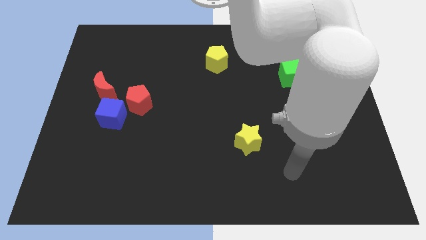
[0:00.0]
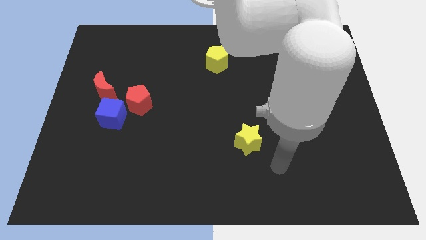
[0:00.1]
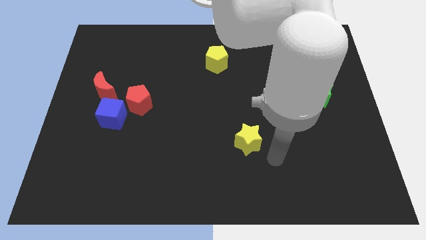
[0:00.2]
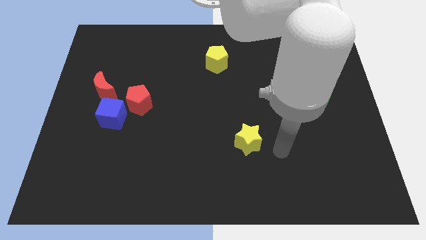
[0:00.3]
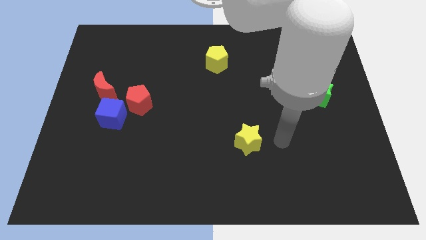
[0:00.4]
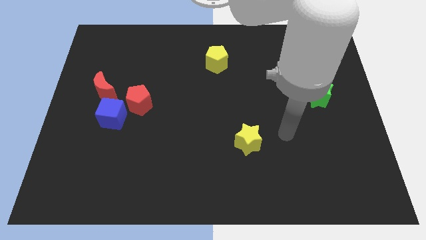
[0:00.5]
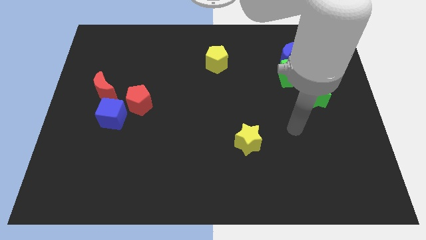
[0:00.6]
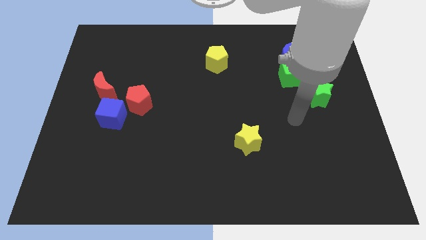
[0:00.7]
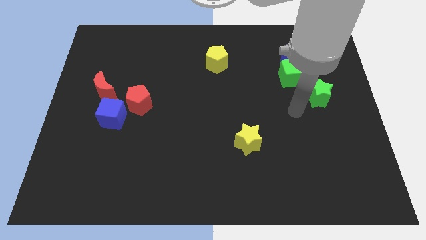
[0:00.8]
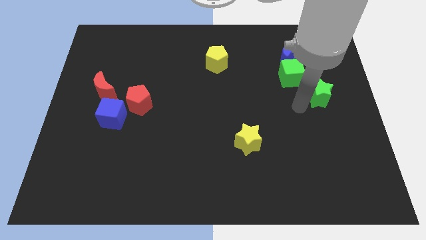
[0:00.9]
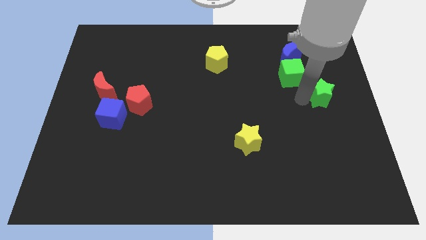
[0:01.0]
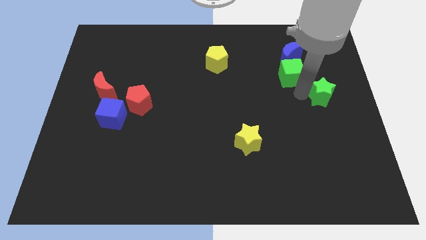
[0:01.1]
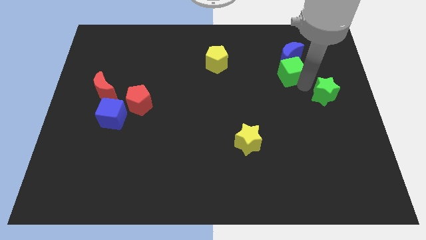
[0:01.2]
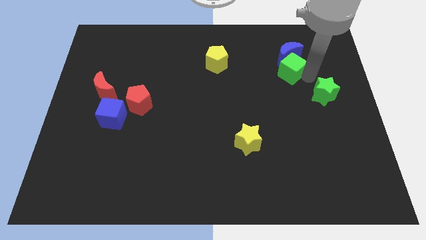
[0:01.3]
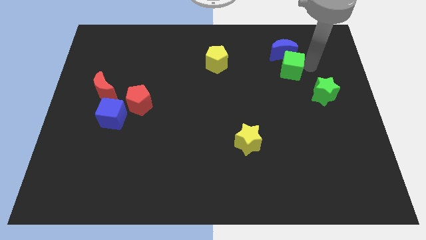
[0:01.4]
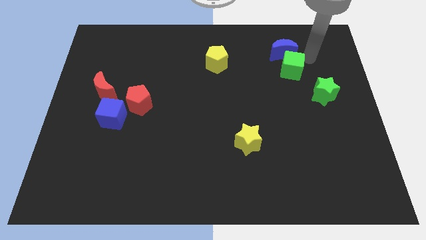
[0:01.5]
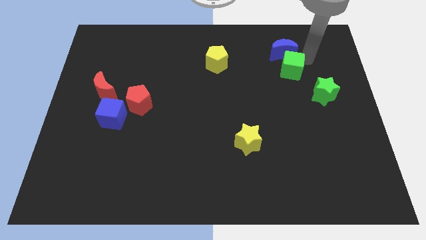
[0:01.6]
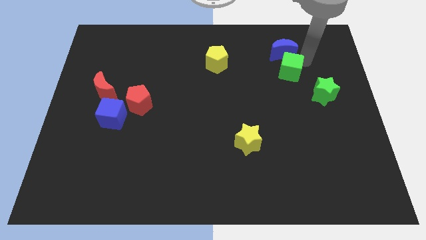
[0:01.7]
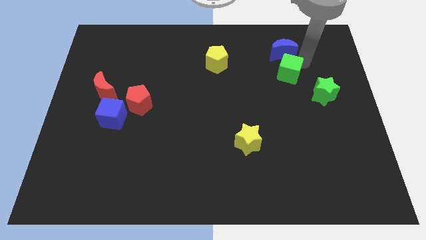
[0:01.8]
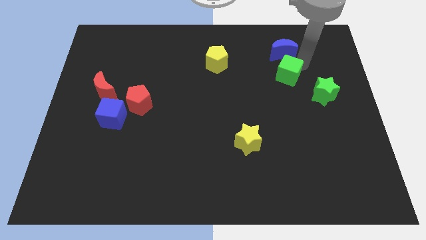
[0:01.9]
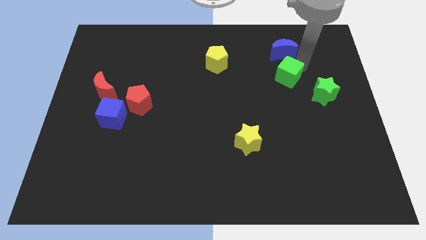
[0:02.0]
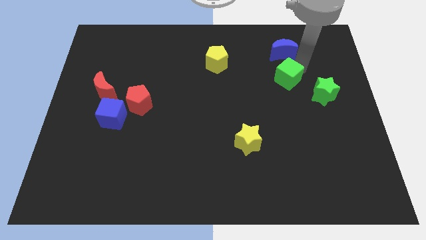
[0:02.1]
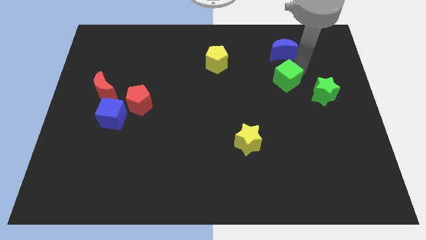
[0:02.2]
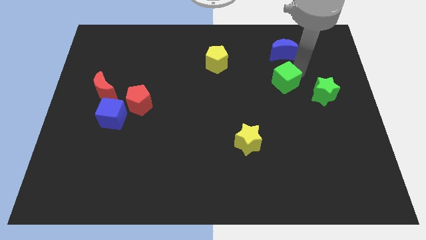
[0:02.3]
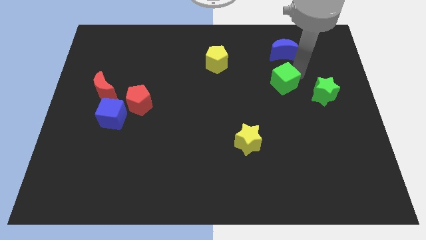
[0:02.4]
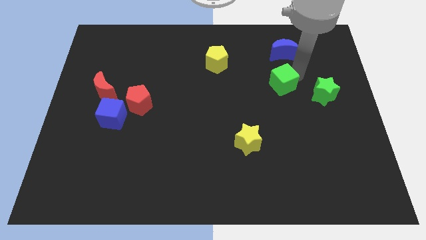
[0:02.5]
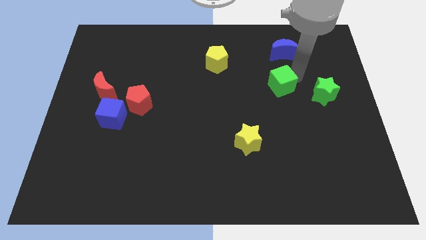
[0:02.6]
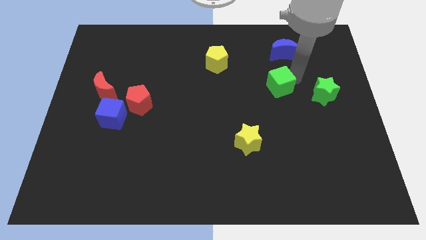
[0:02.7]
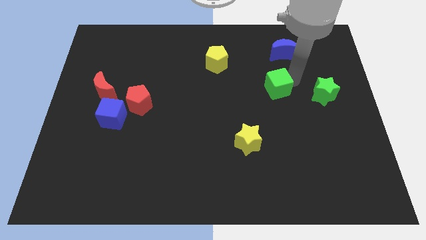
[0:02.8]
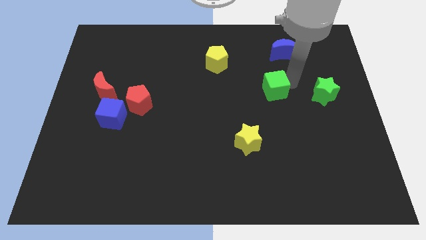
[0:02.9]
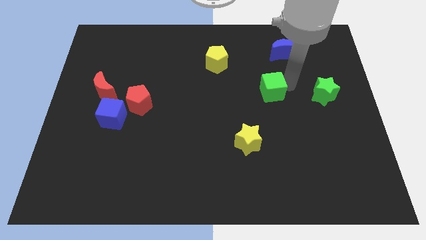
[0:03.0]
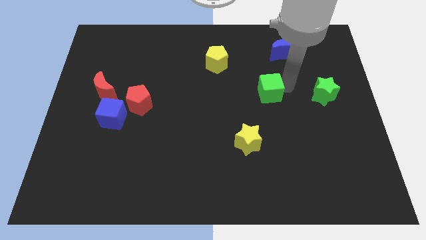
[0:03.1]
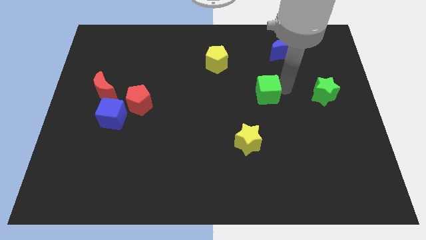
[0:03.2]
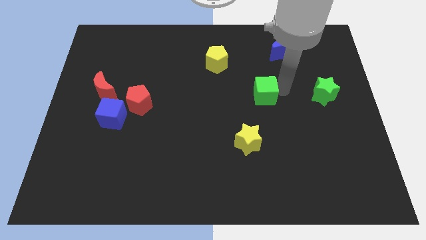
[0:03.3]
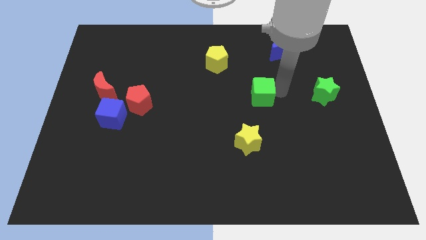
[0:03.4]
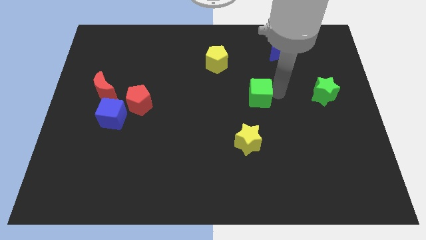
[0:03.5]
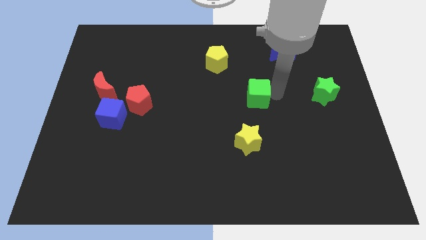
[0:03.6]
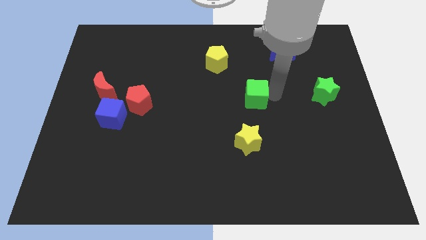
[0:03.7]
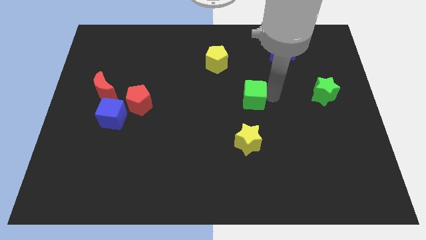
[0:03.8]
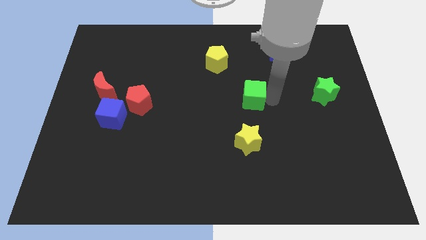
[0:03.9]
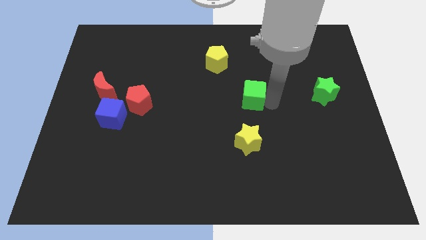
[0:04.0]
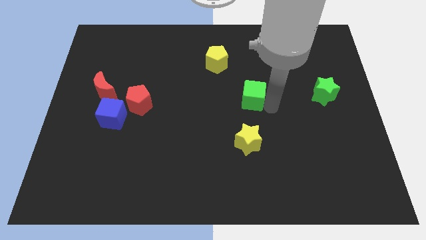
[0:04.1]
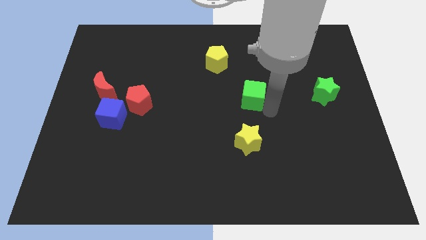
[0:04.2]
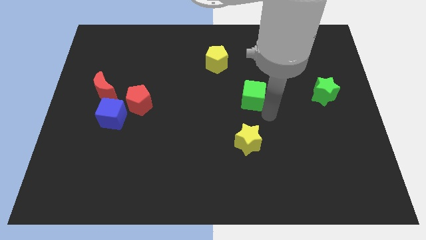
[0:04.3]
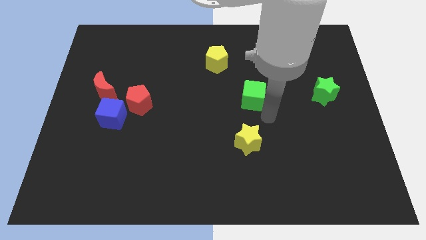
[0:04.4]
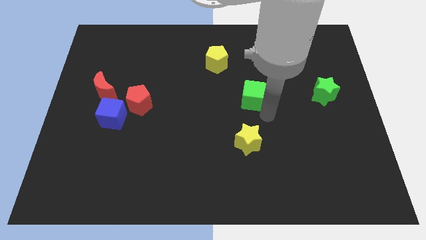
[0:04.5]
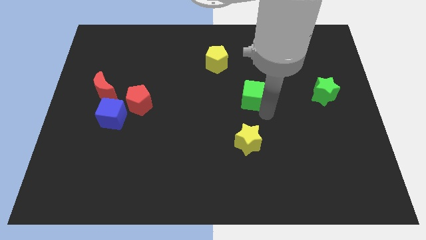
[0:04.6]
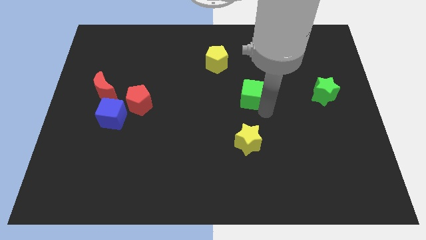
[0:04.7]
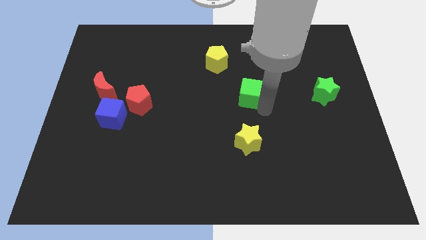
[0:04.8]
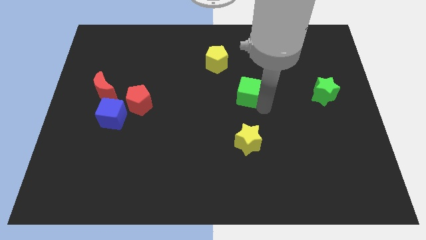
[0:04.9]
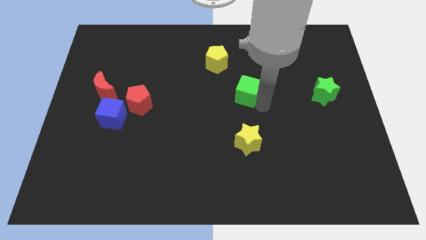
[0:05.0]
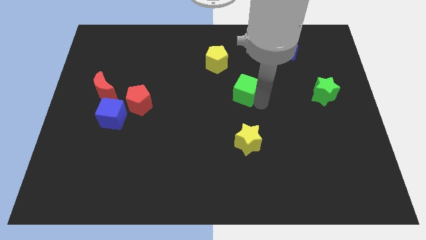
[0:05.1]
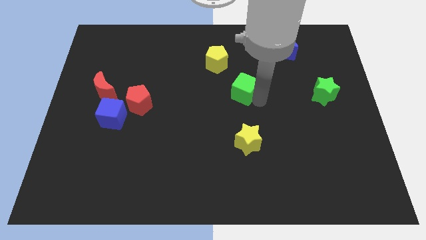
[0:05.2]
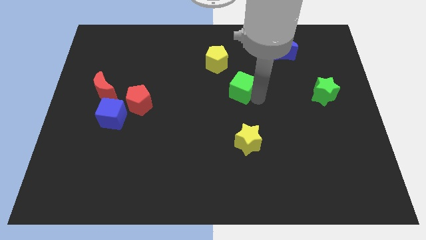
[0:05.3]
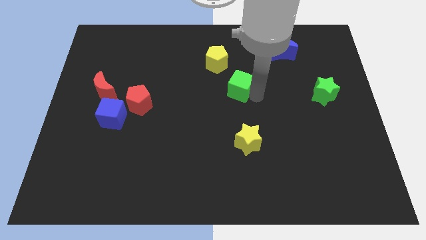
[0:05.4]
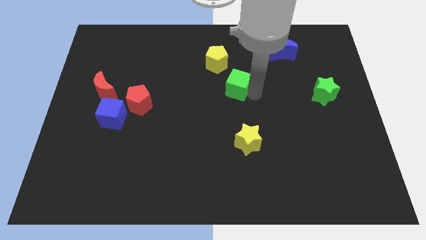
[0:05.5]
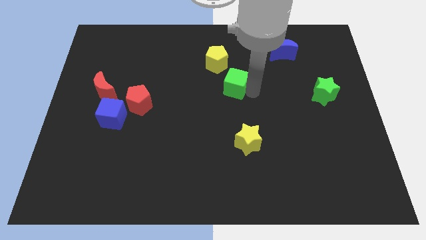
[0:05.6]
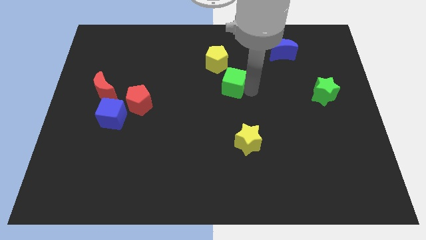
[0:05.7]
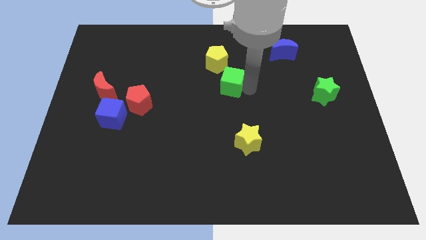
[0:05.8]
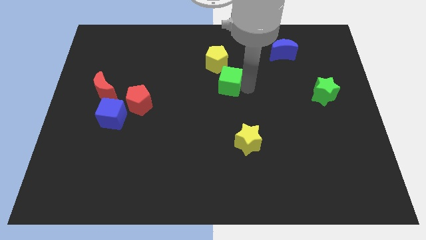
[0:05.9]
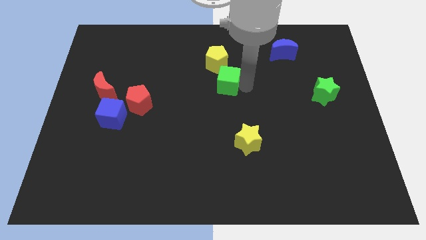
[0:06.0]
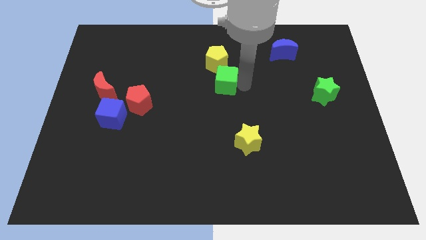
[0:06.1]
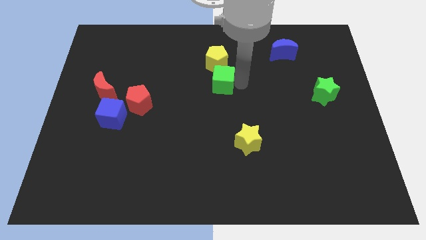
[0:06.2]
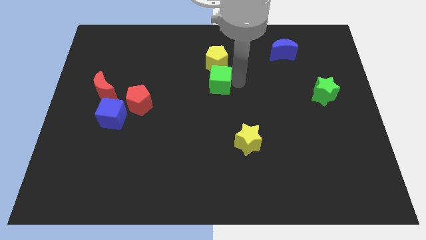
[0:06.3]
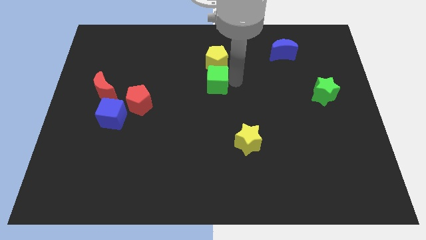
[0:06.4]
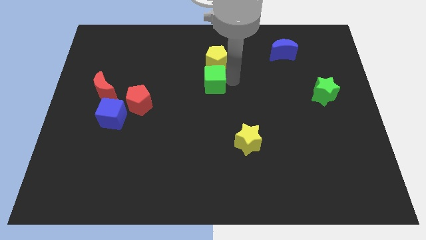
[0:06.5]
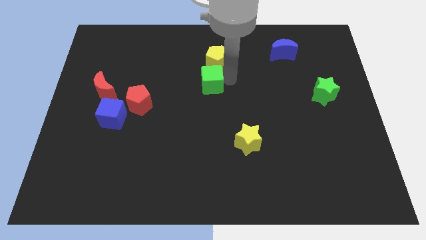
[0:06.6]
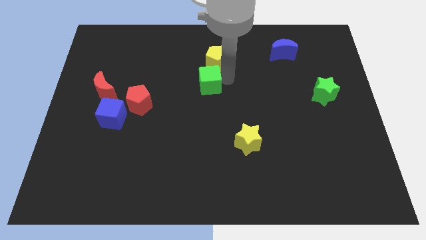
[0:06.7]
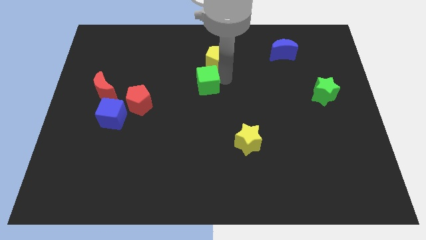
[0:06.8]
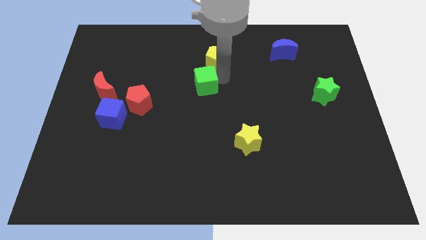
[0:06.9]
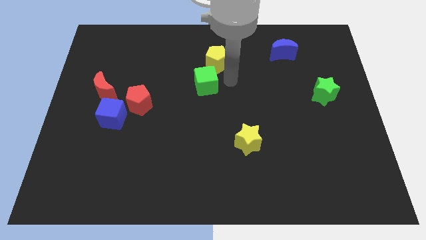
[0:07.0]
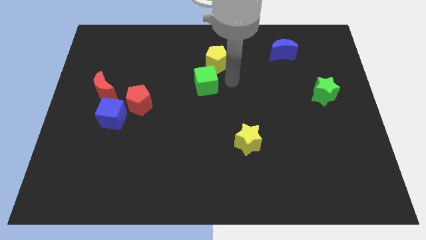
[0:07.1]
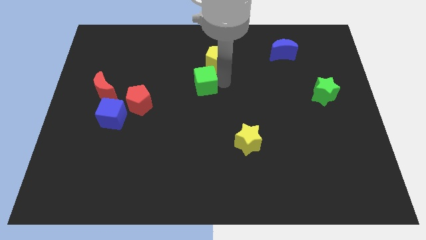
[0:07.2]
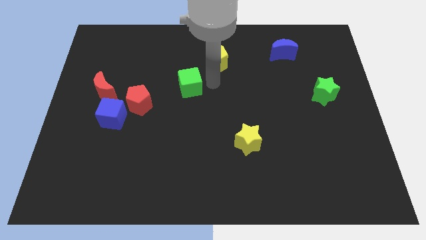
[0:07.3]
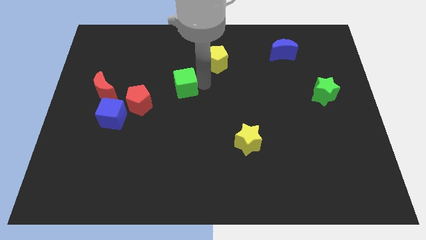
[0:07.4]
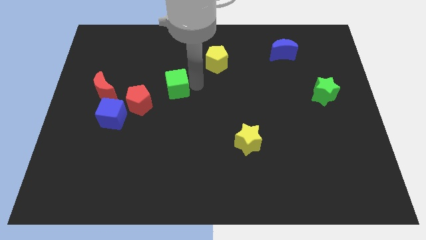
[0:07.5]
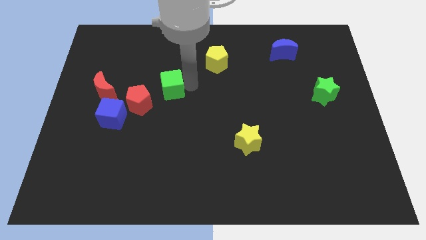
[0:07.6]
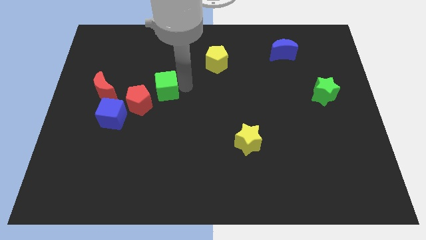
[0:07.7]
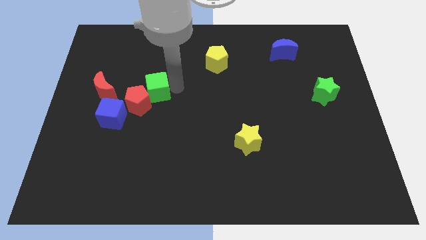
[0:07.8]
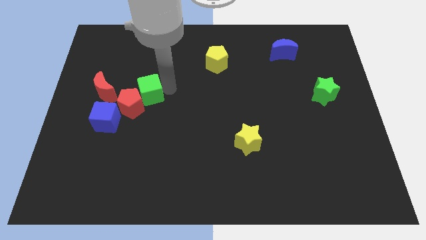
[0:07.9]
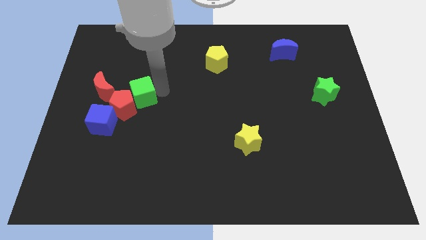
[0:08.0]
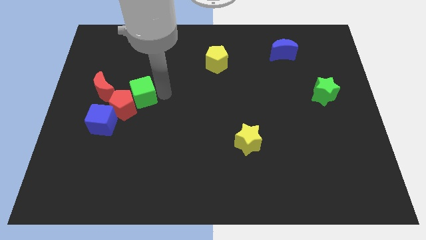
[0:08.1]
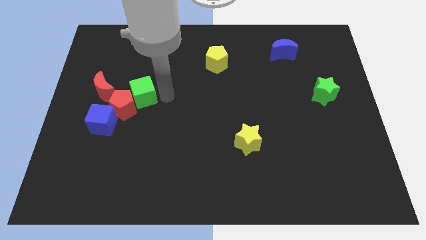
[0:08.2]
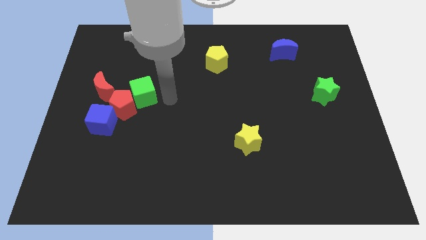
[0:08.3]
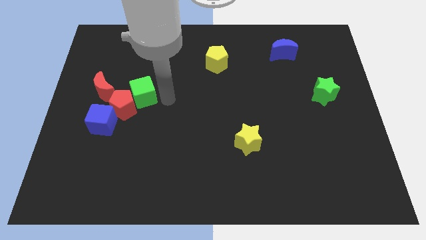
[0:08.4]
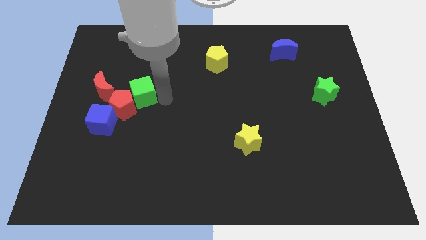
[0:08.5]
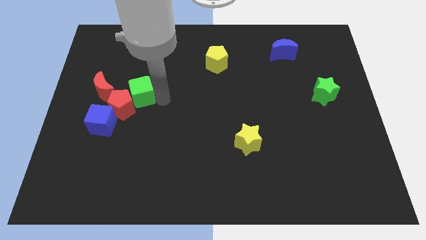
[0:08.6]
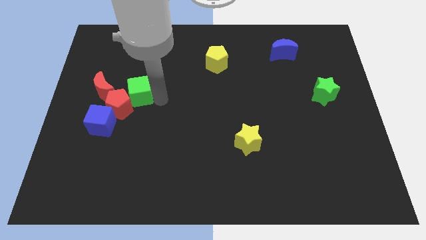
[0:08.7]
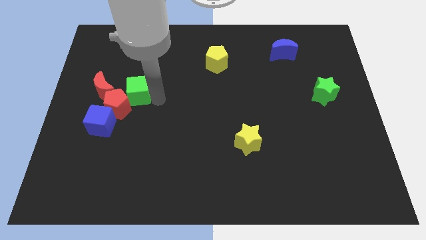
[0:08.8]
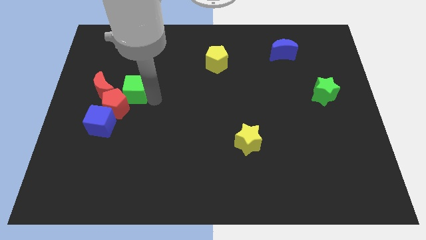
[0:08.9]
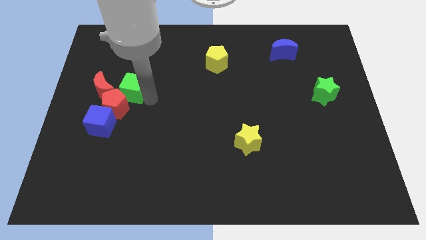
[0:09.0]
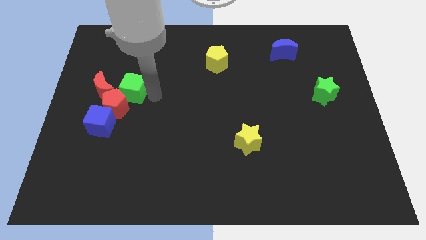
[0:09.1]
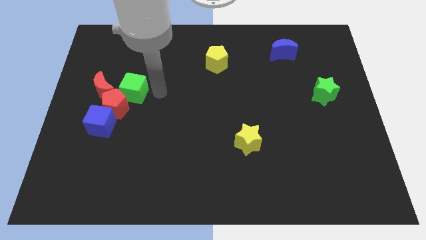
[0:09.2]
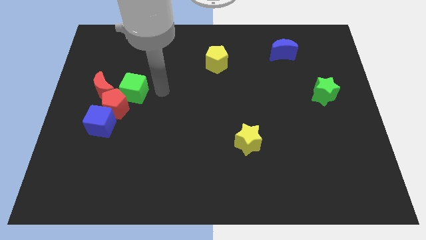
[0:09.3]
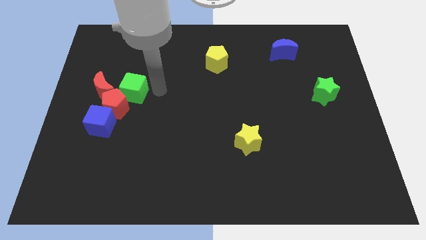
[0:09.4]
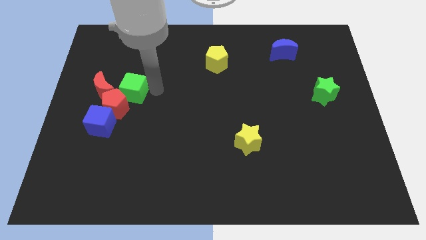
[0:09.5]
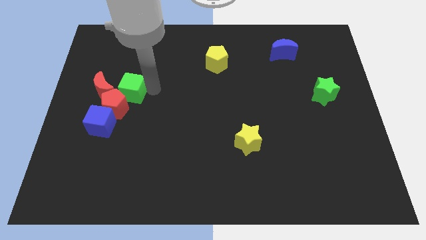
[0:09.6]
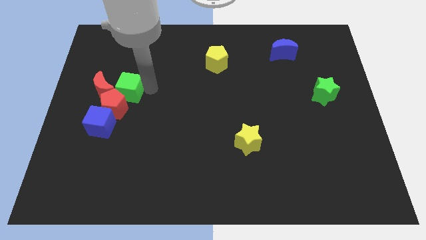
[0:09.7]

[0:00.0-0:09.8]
move the green cube close to the red moon
